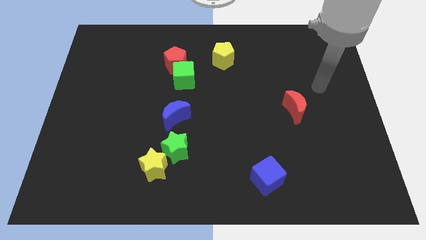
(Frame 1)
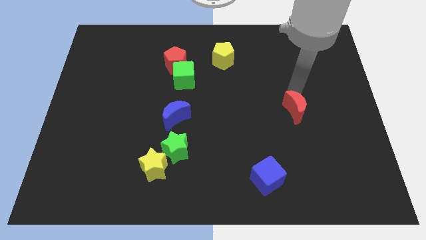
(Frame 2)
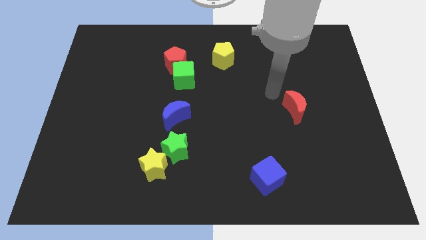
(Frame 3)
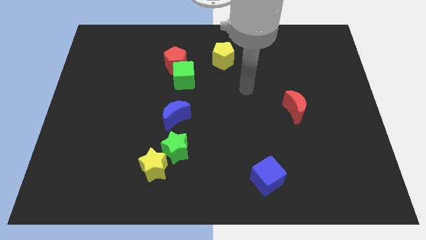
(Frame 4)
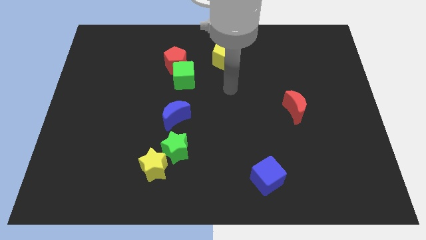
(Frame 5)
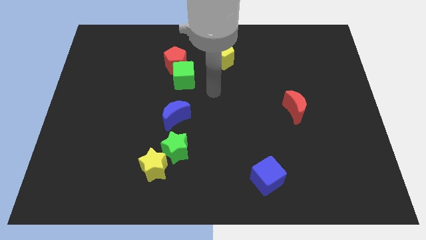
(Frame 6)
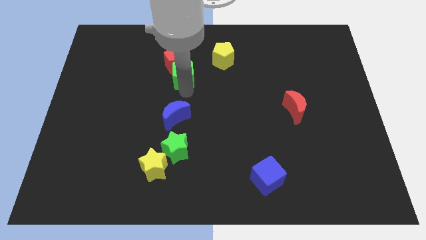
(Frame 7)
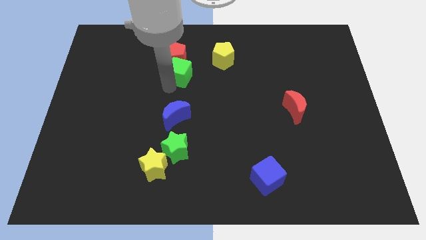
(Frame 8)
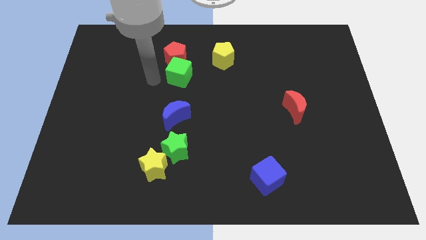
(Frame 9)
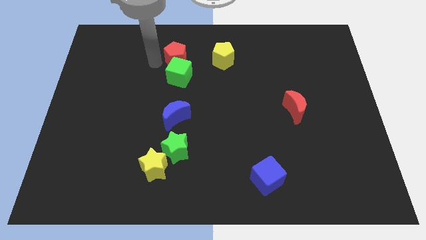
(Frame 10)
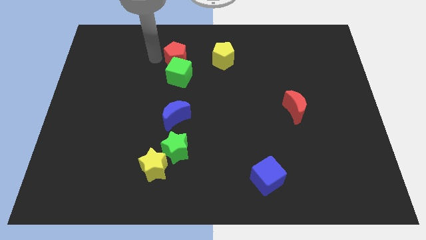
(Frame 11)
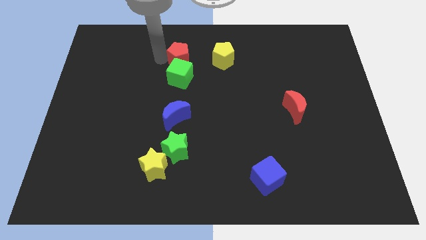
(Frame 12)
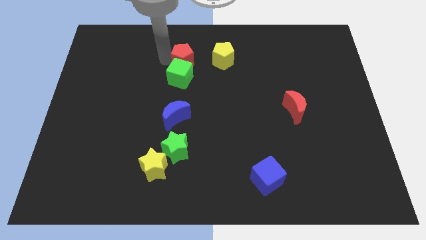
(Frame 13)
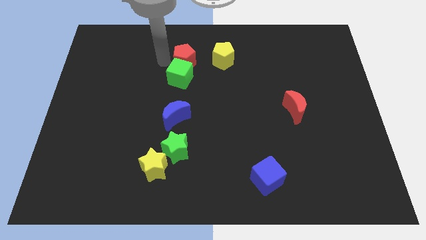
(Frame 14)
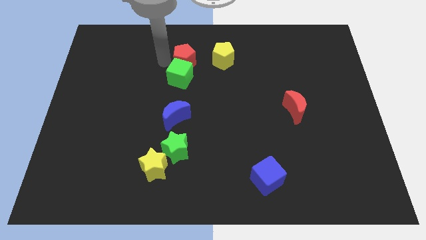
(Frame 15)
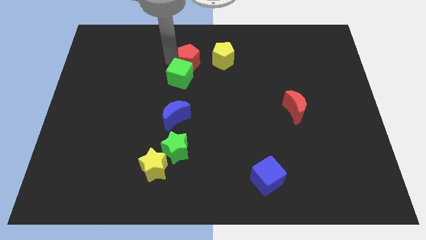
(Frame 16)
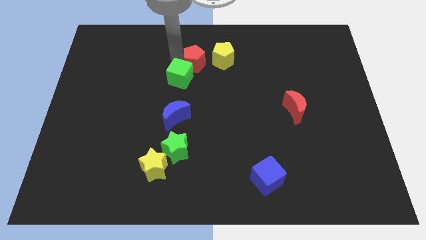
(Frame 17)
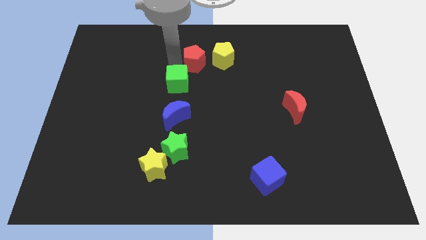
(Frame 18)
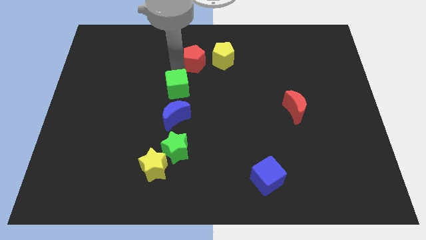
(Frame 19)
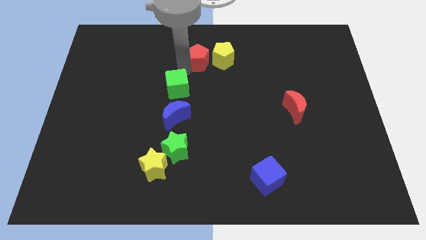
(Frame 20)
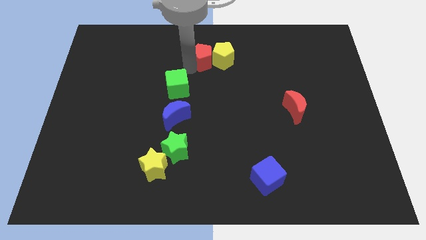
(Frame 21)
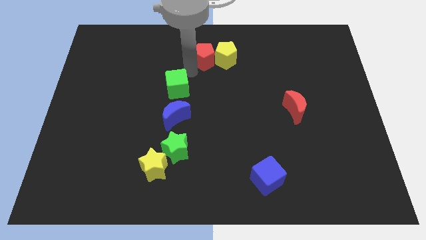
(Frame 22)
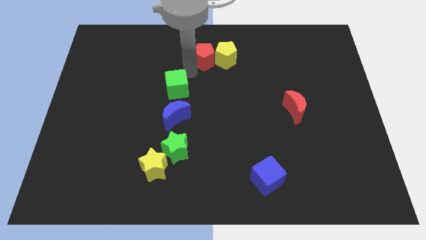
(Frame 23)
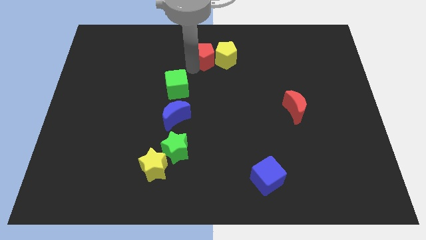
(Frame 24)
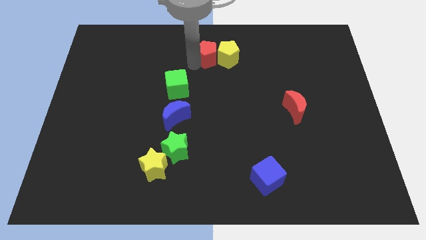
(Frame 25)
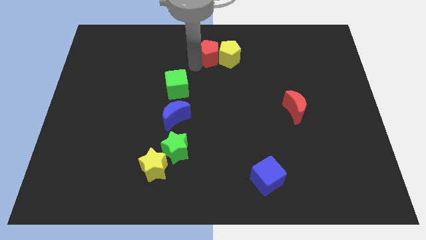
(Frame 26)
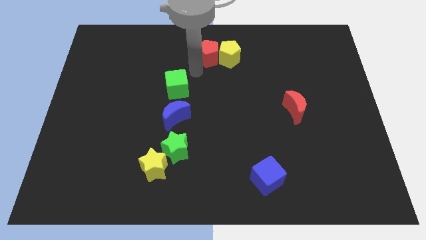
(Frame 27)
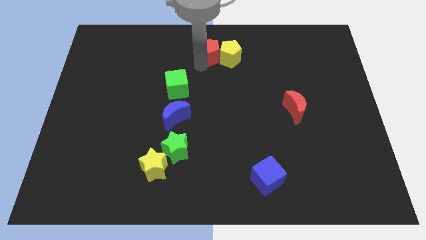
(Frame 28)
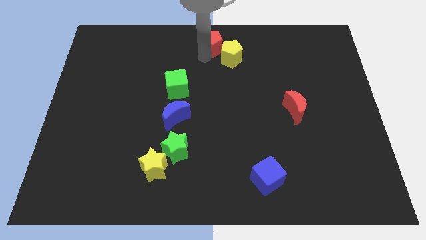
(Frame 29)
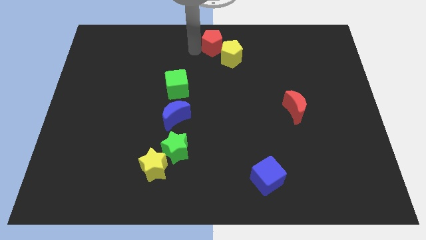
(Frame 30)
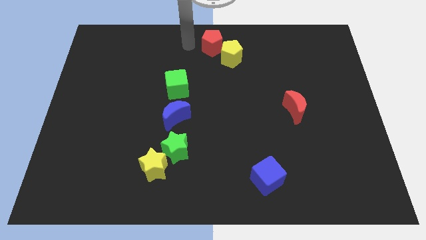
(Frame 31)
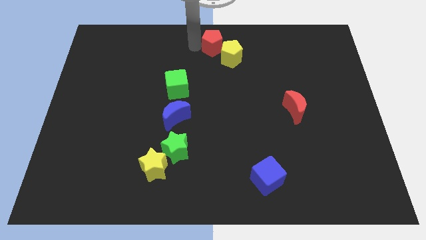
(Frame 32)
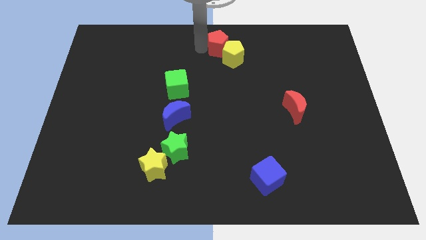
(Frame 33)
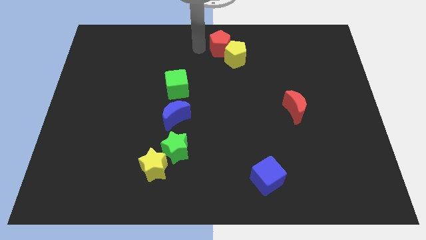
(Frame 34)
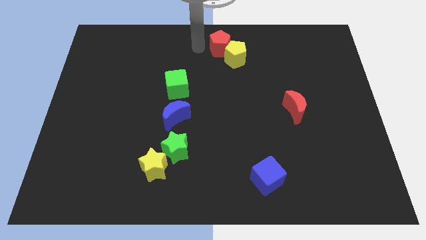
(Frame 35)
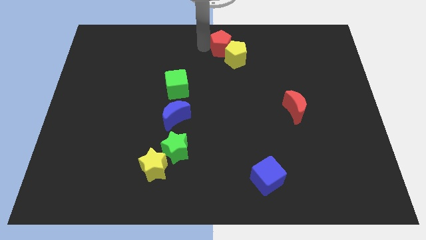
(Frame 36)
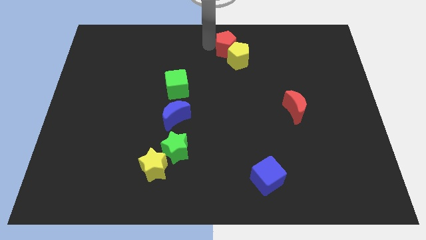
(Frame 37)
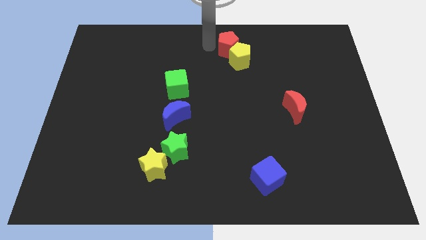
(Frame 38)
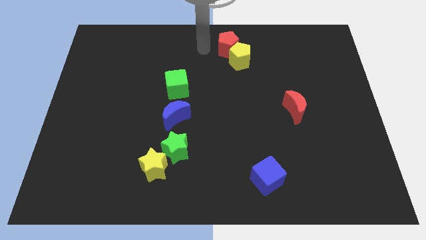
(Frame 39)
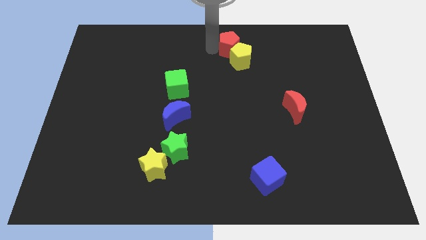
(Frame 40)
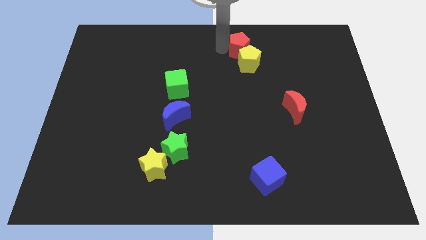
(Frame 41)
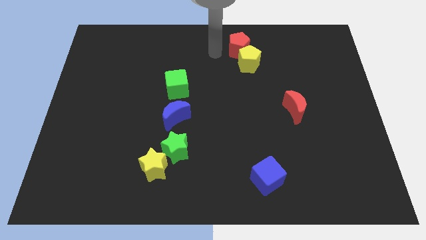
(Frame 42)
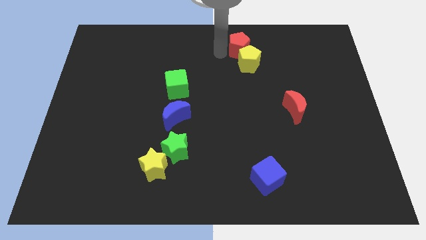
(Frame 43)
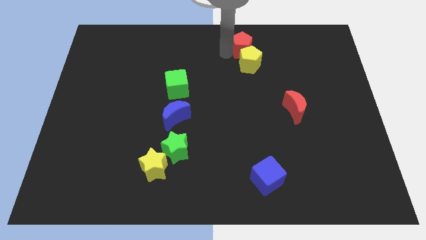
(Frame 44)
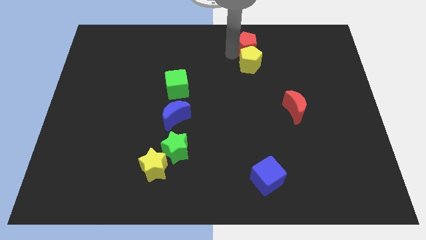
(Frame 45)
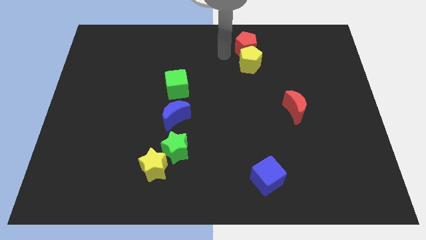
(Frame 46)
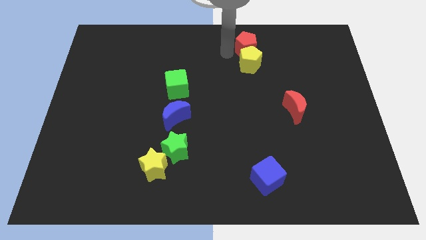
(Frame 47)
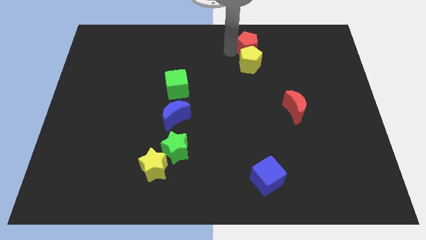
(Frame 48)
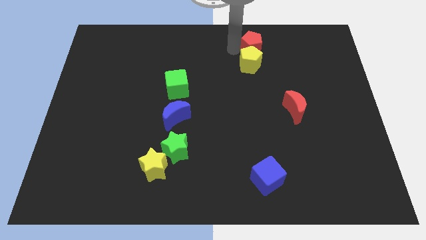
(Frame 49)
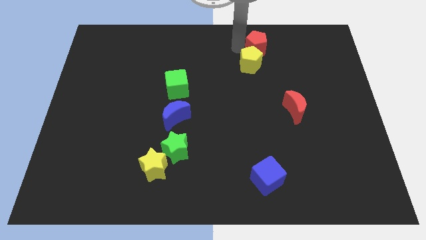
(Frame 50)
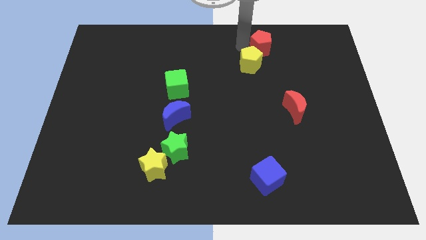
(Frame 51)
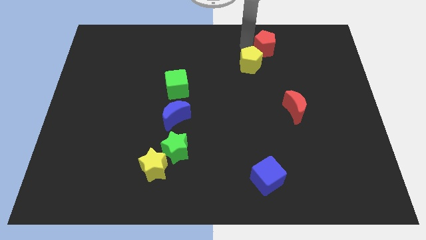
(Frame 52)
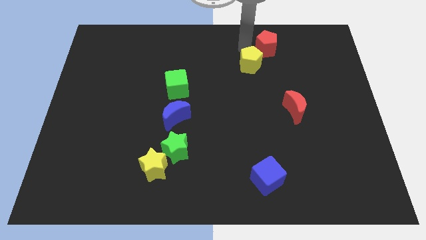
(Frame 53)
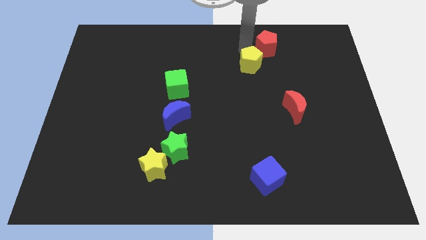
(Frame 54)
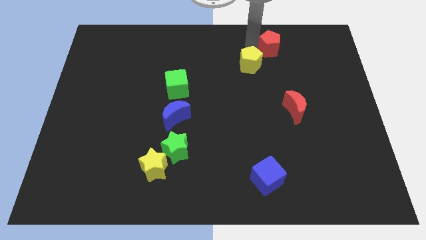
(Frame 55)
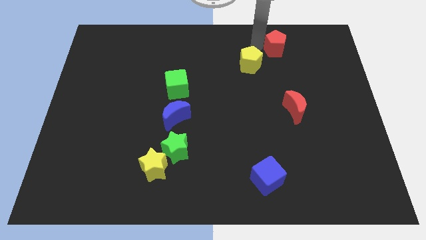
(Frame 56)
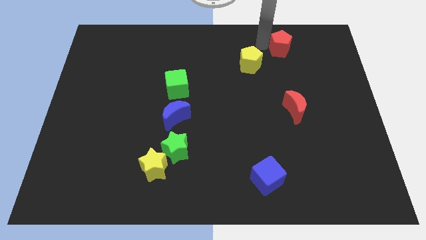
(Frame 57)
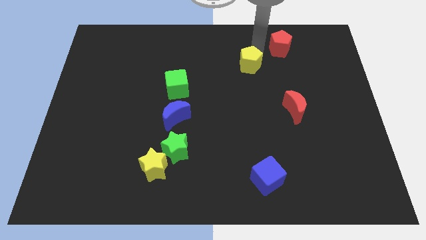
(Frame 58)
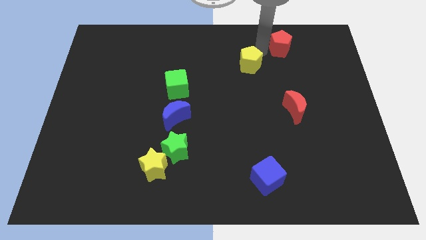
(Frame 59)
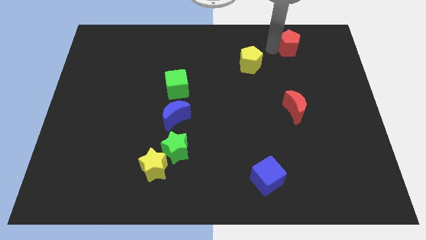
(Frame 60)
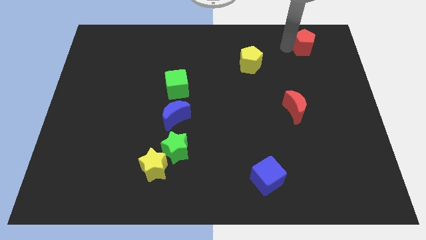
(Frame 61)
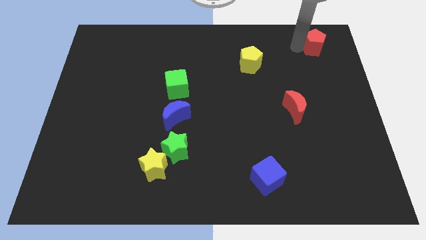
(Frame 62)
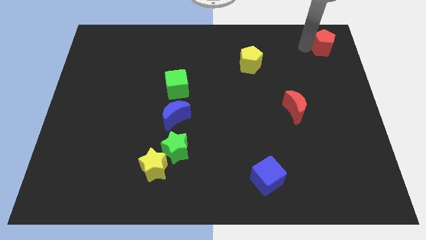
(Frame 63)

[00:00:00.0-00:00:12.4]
push the red pentagon to the upper right corner

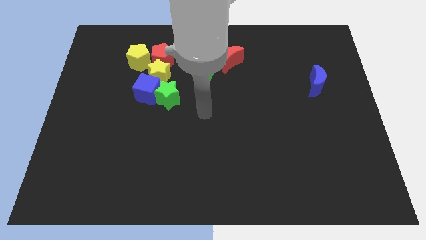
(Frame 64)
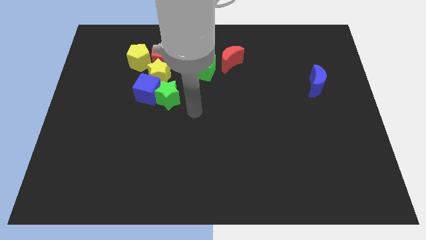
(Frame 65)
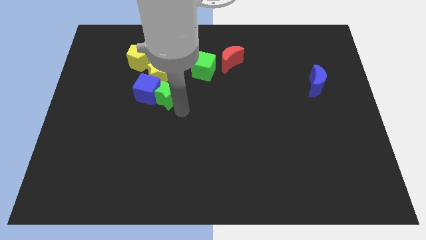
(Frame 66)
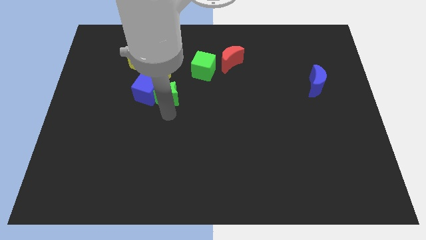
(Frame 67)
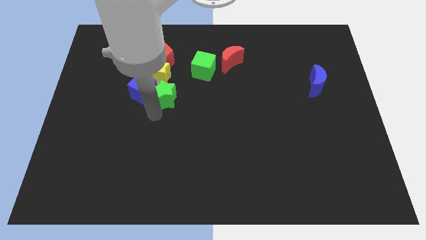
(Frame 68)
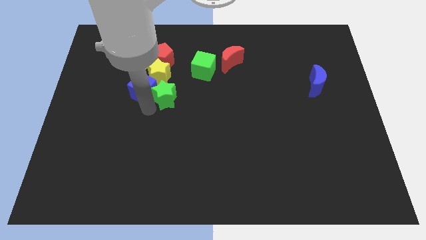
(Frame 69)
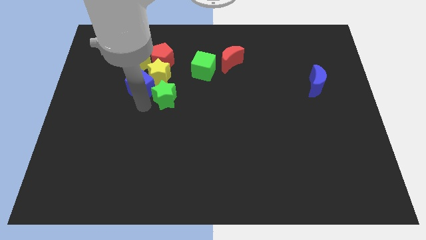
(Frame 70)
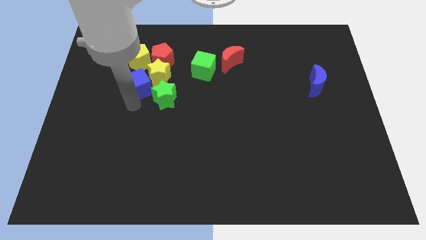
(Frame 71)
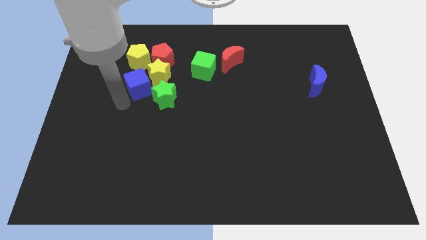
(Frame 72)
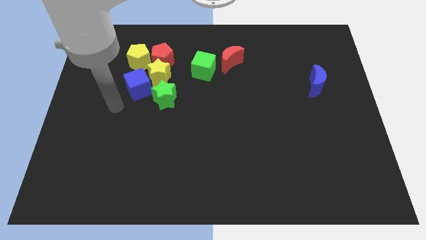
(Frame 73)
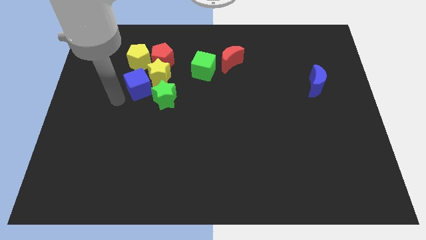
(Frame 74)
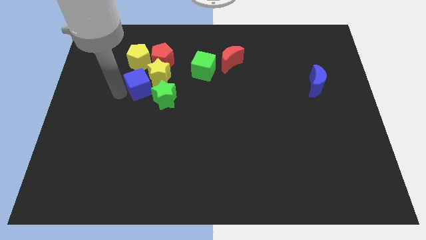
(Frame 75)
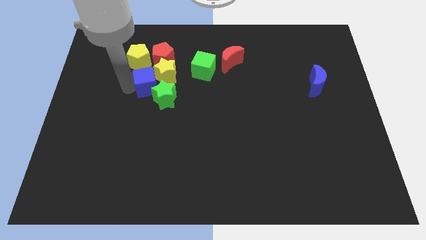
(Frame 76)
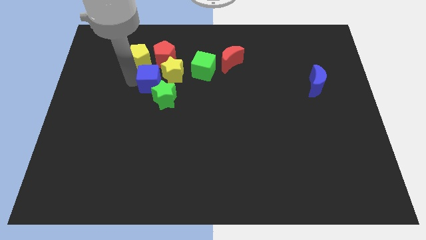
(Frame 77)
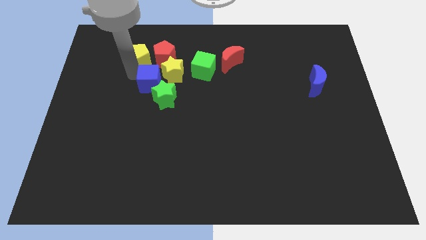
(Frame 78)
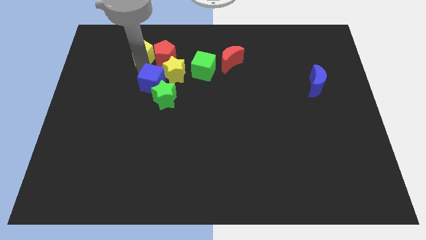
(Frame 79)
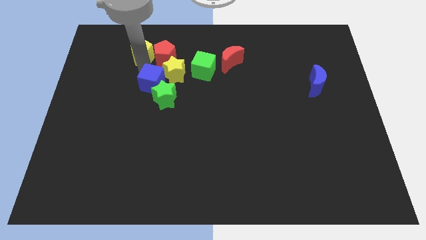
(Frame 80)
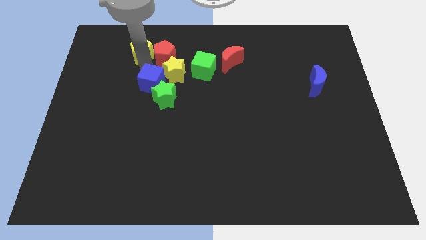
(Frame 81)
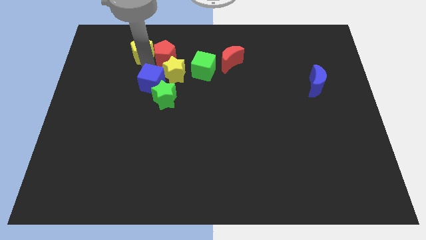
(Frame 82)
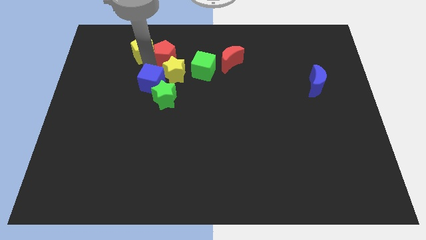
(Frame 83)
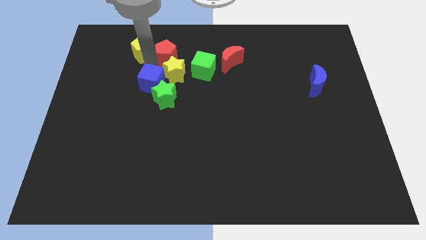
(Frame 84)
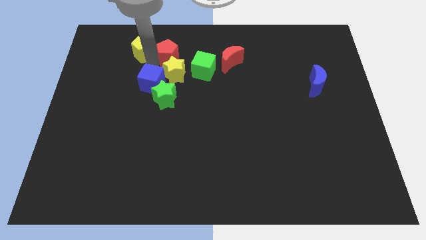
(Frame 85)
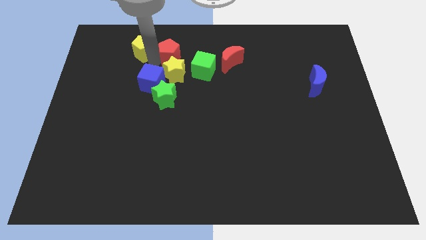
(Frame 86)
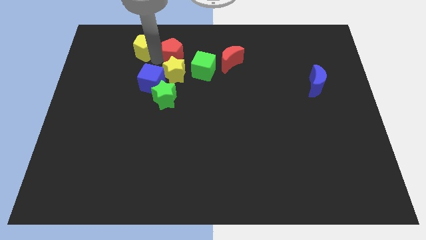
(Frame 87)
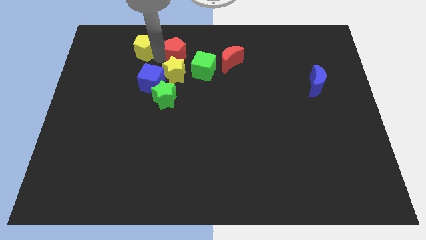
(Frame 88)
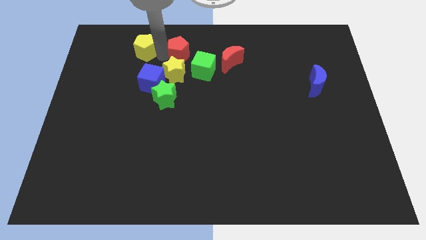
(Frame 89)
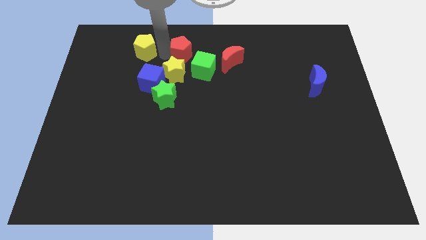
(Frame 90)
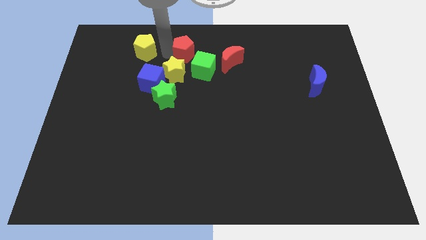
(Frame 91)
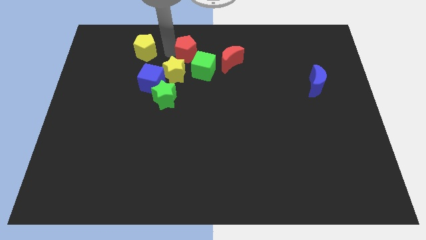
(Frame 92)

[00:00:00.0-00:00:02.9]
put the red pentagon to the top
